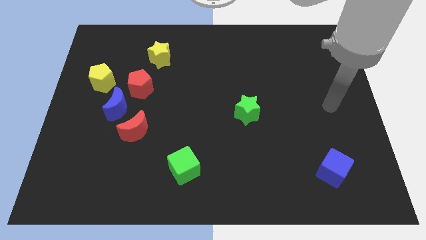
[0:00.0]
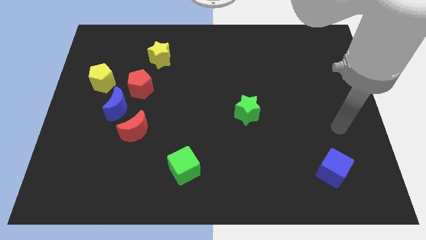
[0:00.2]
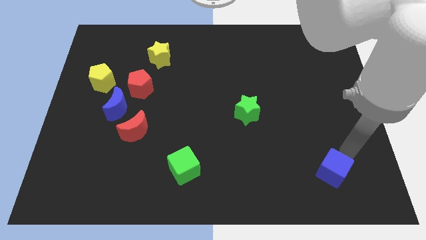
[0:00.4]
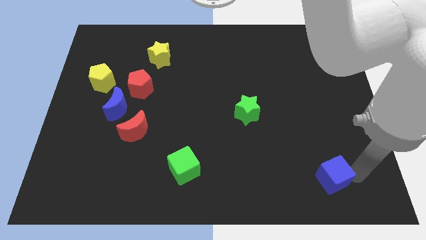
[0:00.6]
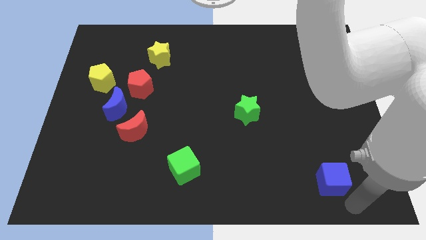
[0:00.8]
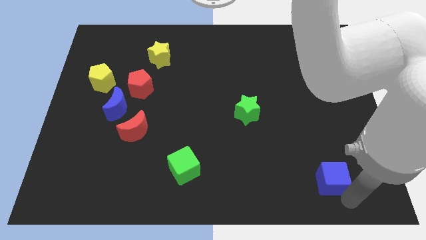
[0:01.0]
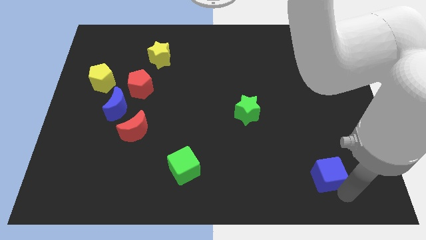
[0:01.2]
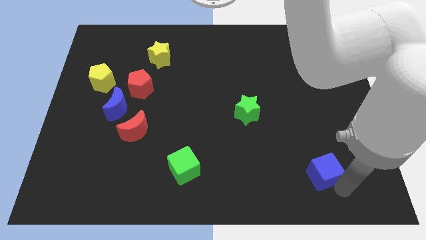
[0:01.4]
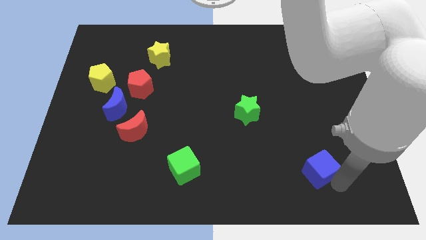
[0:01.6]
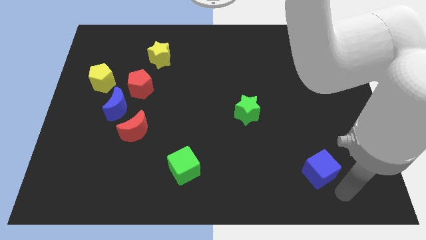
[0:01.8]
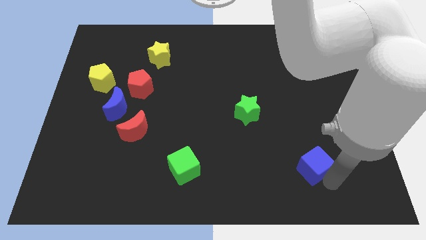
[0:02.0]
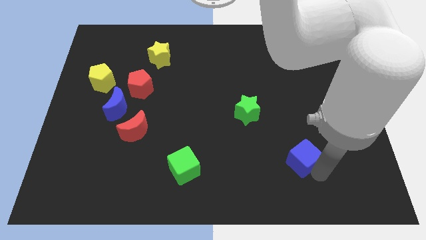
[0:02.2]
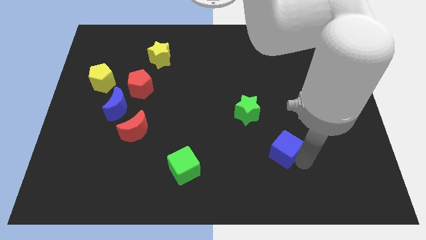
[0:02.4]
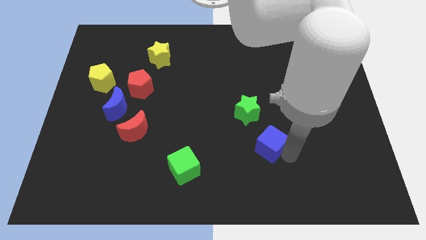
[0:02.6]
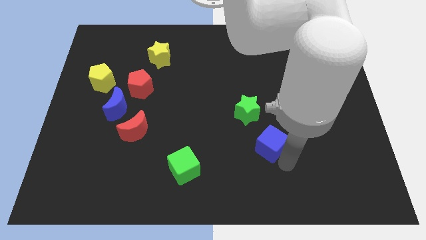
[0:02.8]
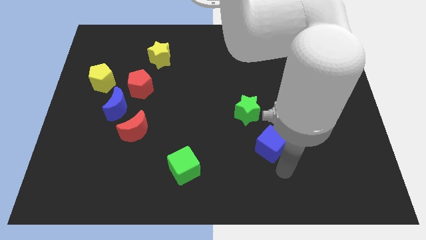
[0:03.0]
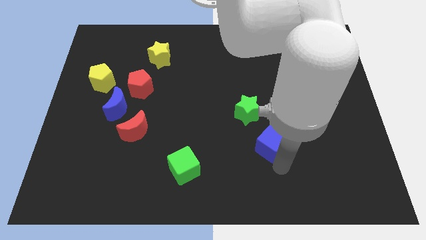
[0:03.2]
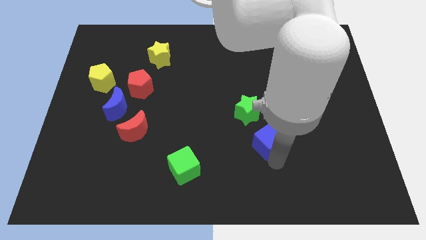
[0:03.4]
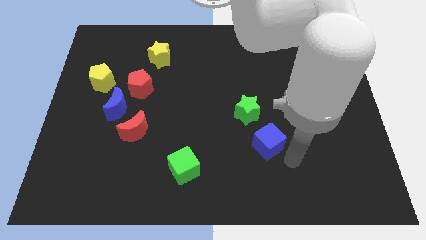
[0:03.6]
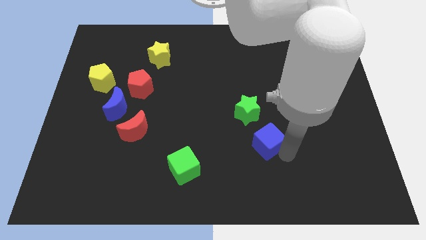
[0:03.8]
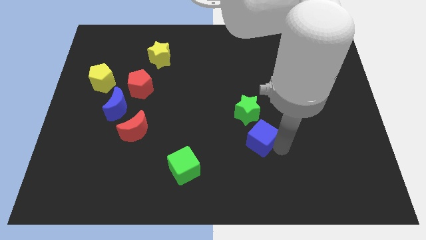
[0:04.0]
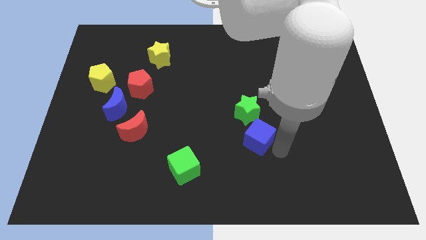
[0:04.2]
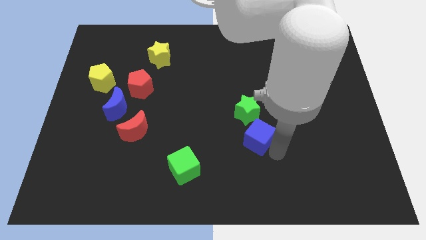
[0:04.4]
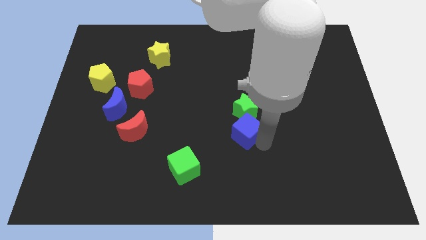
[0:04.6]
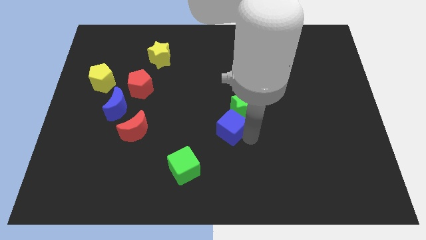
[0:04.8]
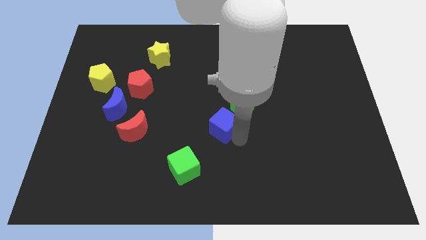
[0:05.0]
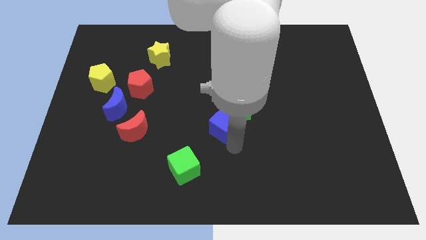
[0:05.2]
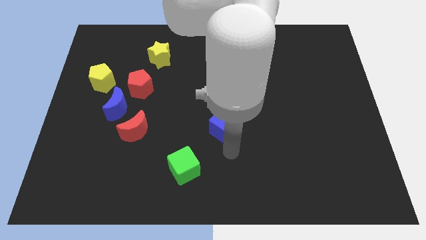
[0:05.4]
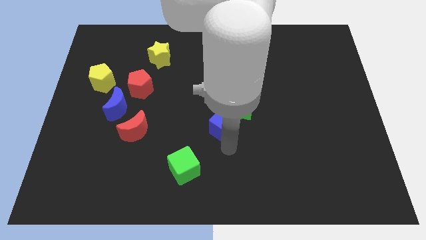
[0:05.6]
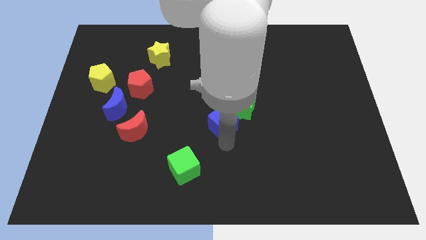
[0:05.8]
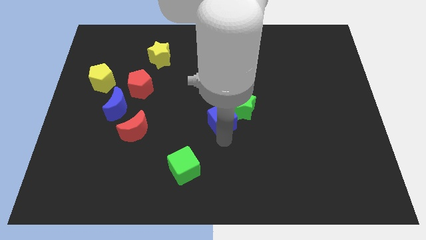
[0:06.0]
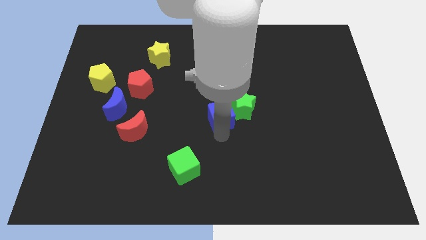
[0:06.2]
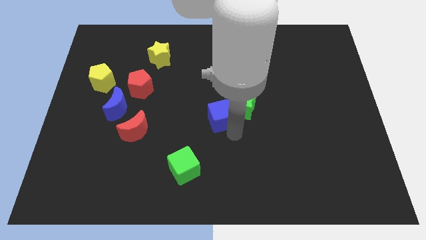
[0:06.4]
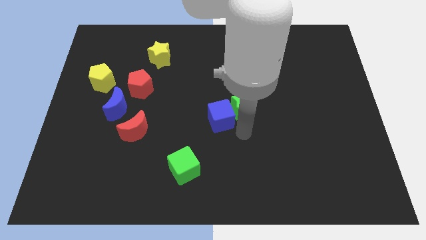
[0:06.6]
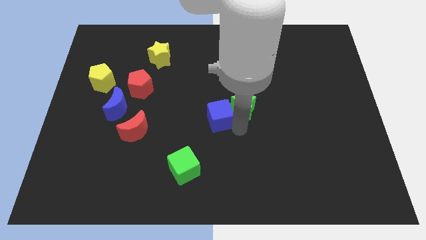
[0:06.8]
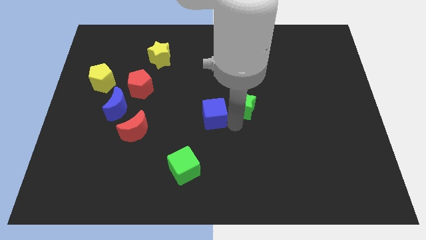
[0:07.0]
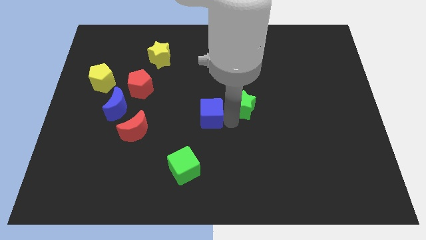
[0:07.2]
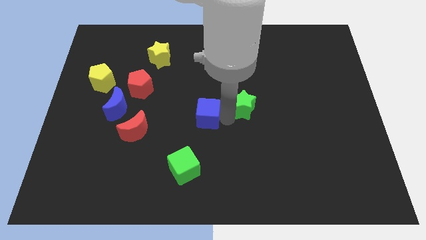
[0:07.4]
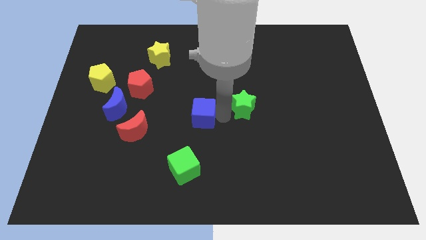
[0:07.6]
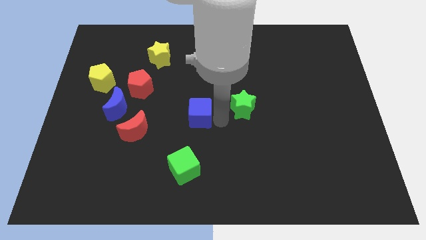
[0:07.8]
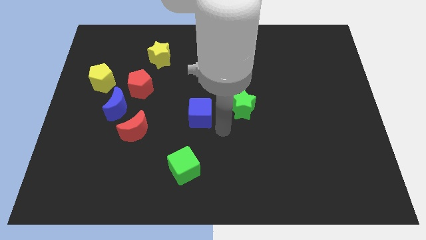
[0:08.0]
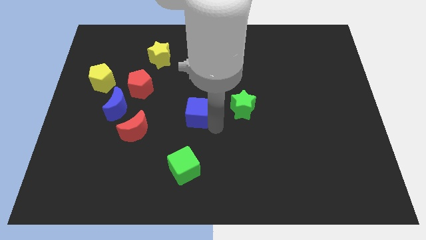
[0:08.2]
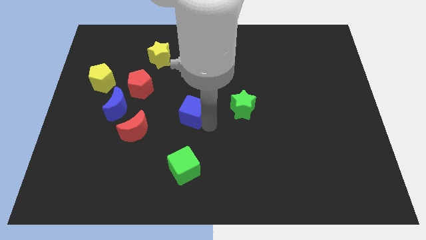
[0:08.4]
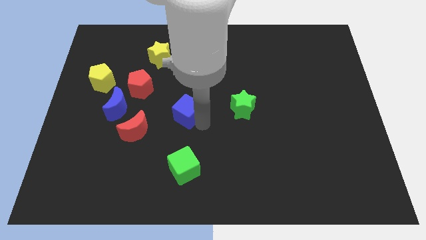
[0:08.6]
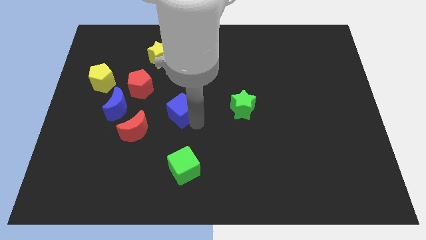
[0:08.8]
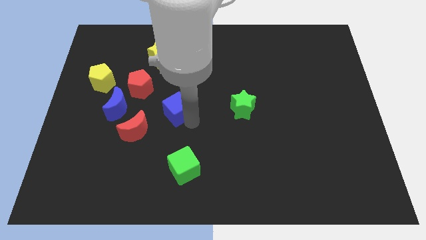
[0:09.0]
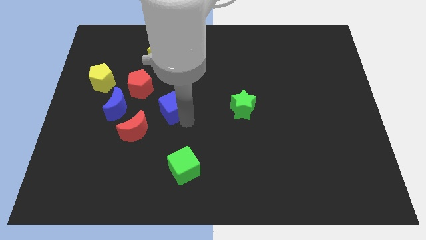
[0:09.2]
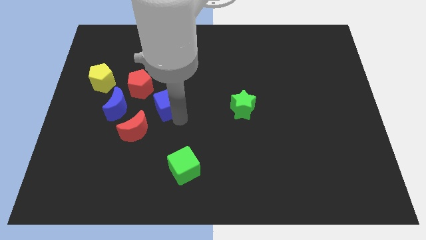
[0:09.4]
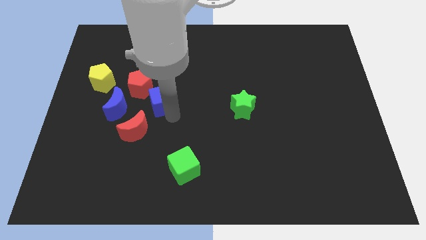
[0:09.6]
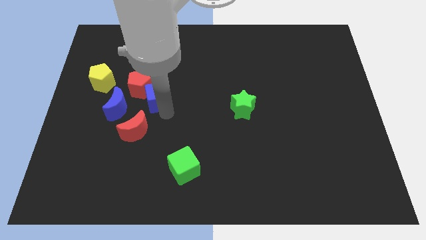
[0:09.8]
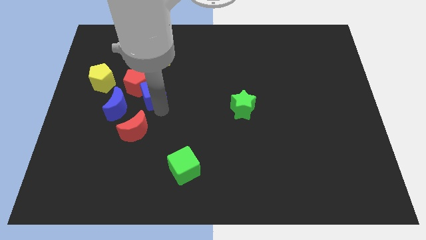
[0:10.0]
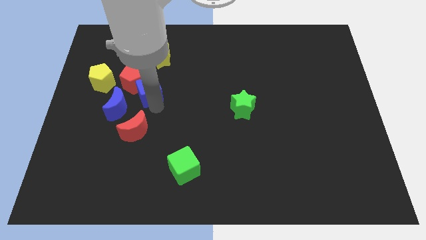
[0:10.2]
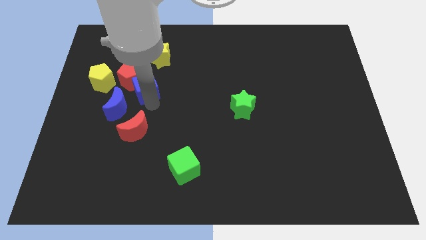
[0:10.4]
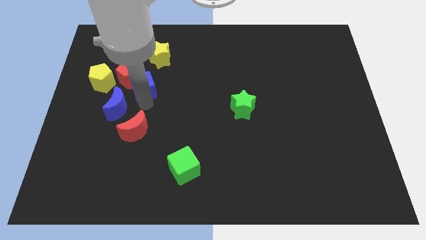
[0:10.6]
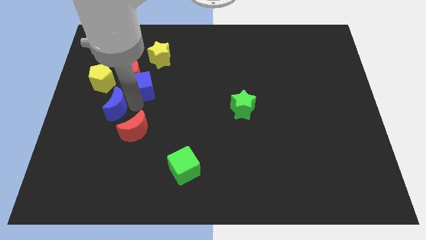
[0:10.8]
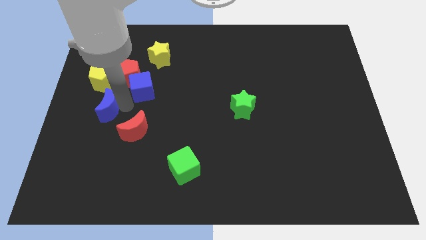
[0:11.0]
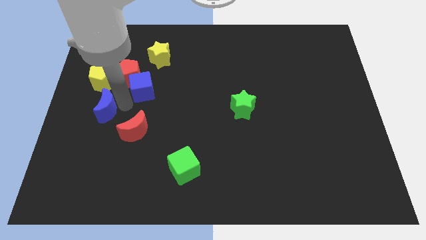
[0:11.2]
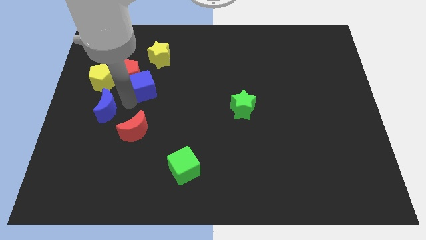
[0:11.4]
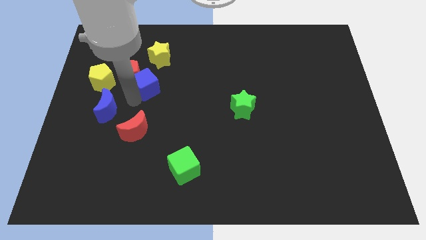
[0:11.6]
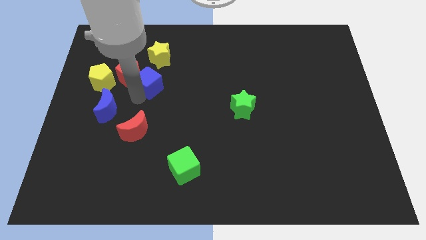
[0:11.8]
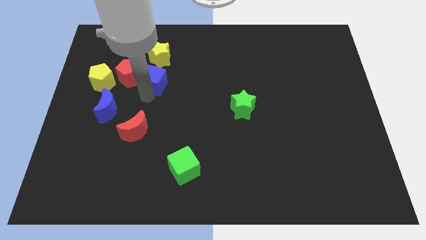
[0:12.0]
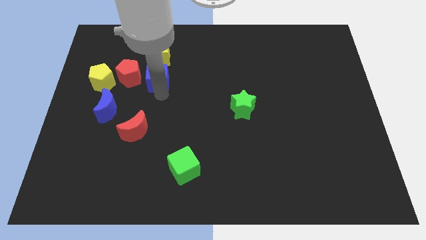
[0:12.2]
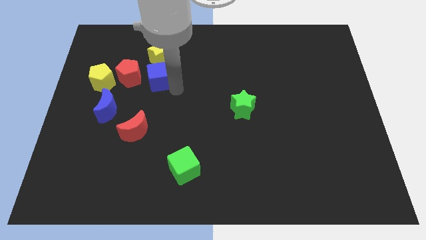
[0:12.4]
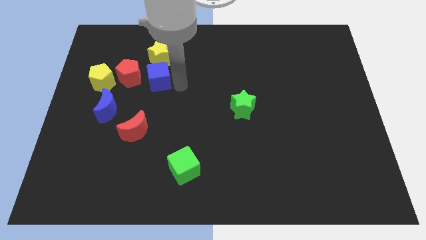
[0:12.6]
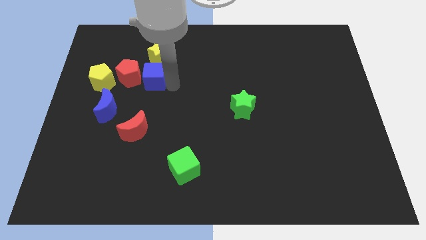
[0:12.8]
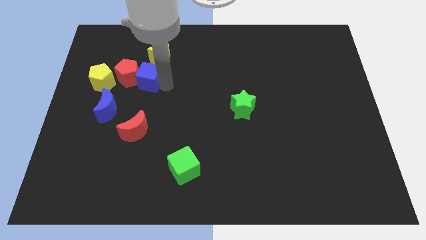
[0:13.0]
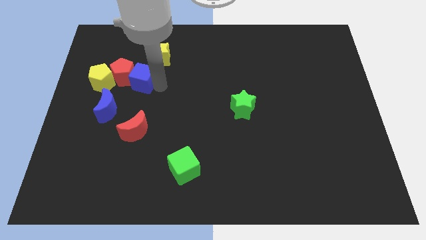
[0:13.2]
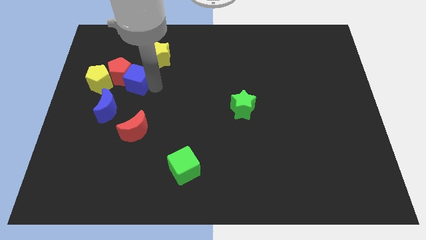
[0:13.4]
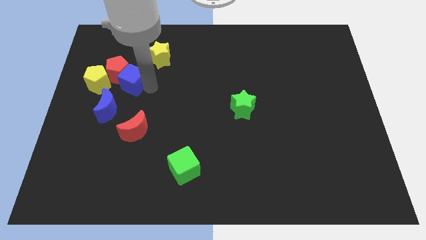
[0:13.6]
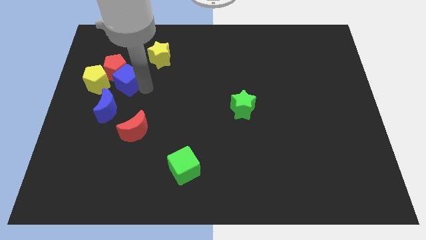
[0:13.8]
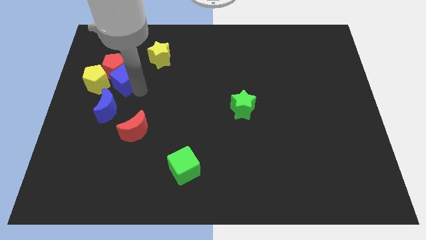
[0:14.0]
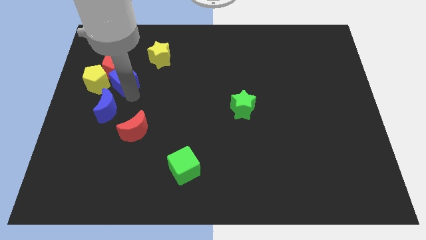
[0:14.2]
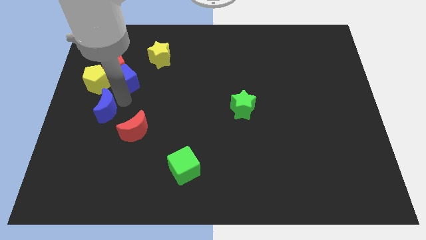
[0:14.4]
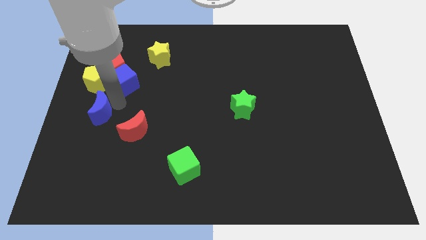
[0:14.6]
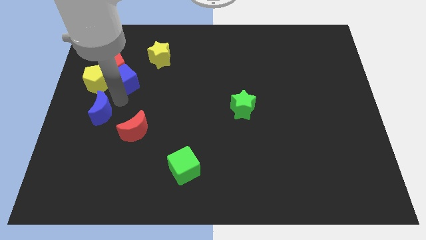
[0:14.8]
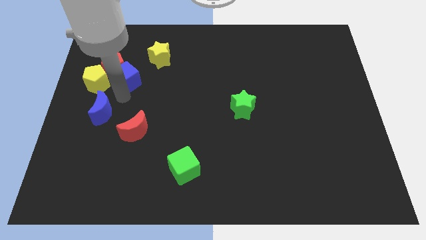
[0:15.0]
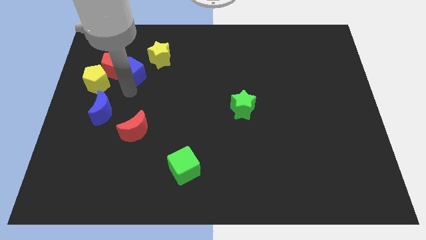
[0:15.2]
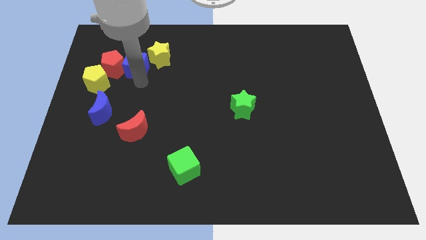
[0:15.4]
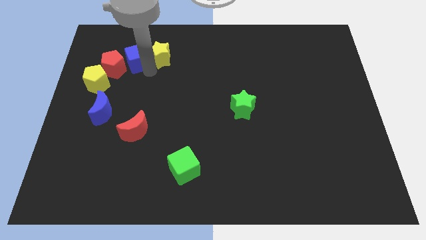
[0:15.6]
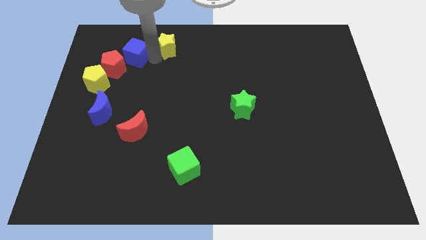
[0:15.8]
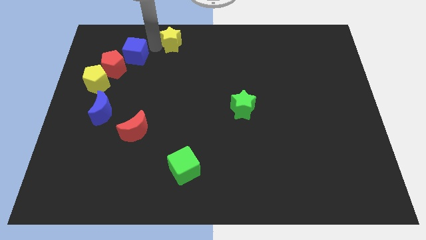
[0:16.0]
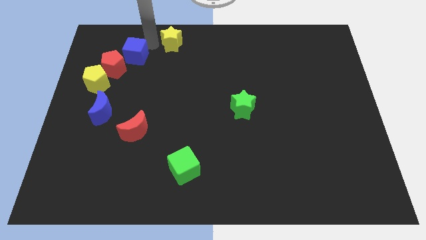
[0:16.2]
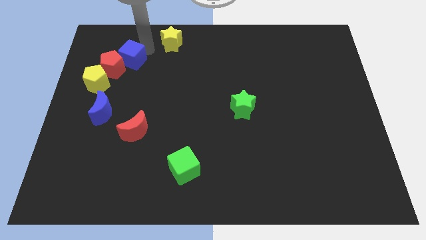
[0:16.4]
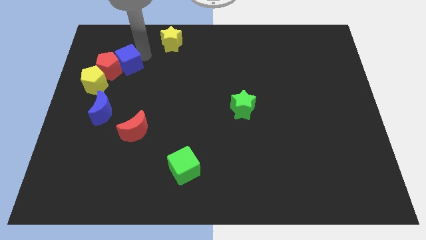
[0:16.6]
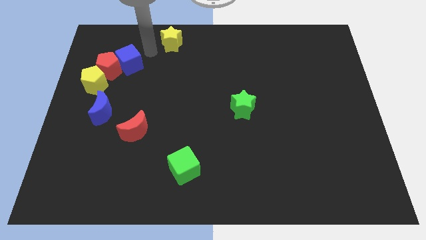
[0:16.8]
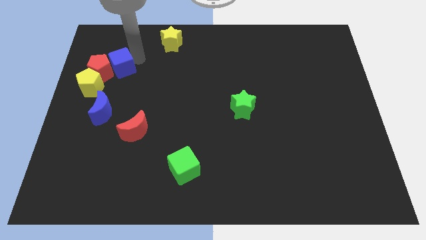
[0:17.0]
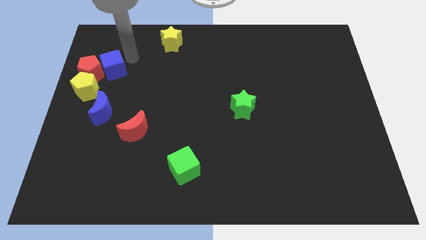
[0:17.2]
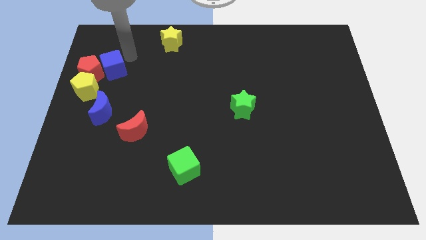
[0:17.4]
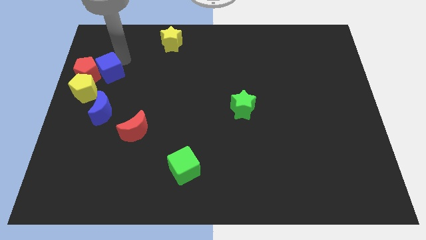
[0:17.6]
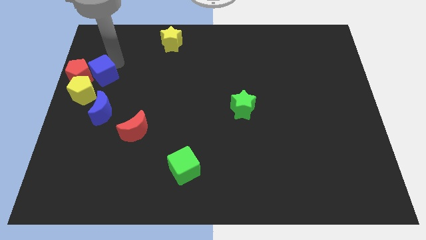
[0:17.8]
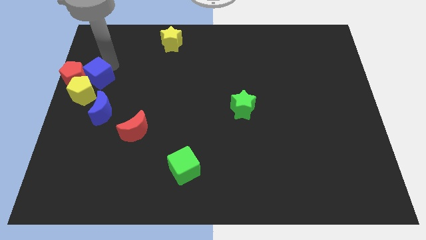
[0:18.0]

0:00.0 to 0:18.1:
push the blue cube close to the yellow pentagon
